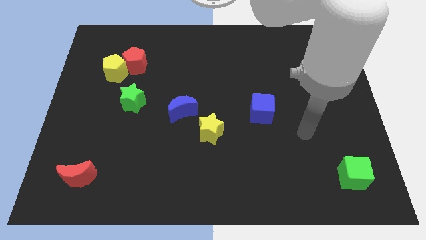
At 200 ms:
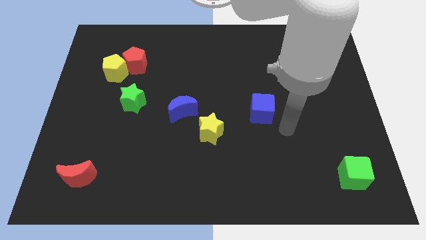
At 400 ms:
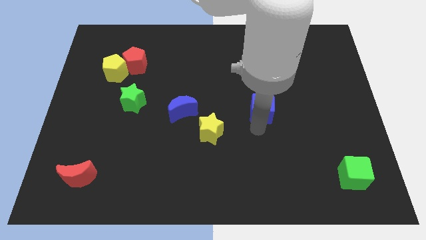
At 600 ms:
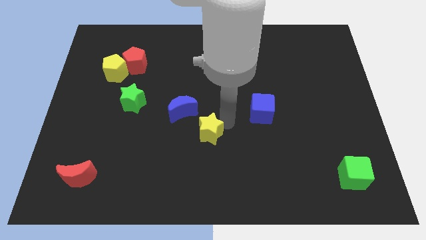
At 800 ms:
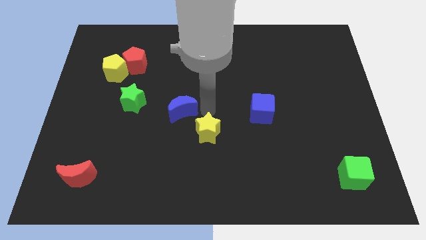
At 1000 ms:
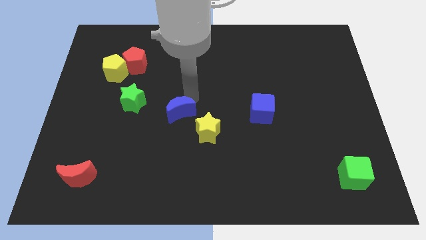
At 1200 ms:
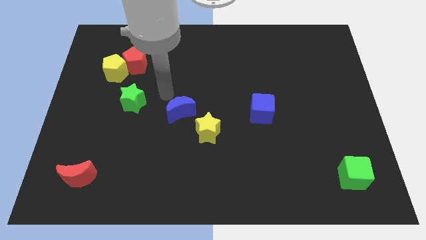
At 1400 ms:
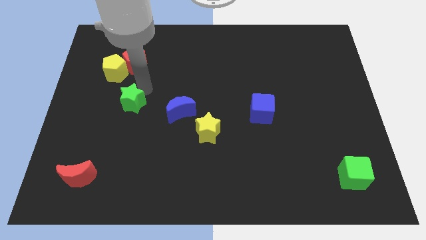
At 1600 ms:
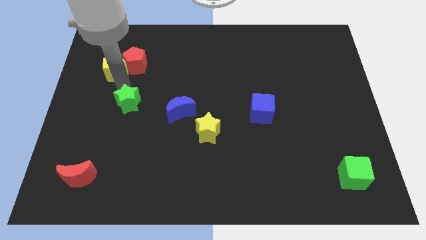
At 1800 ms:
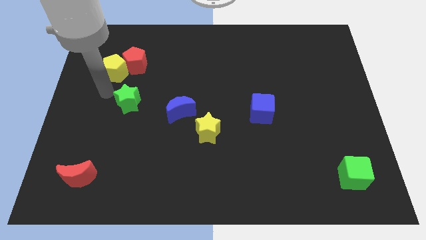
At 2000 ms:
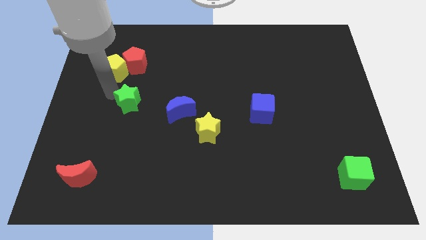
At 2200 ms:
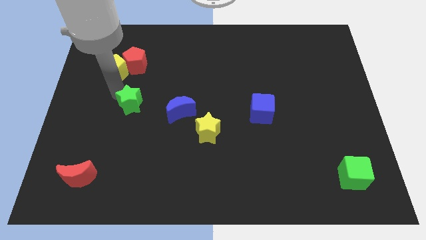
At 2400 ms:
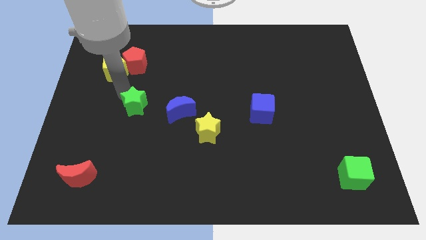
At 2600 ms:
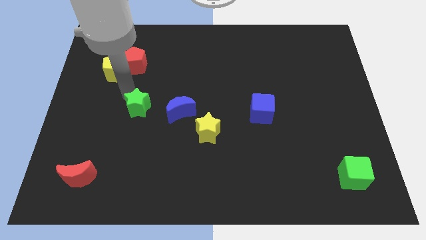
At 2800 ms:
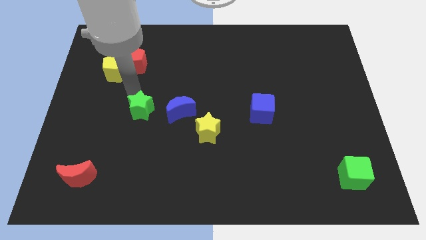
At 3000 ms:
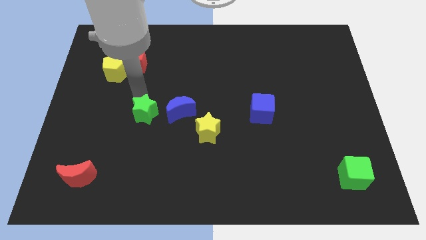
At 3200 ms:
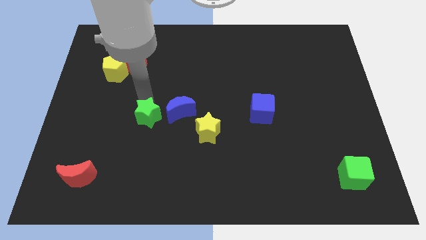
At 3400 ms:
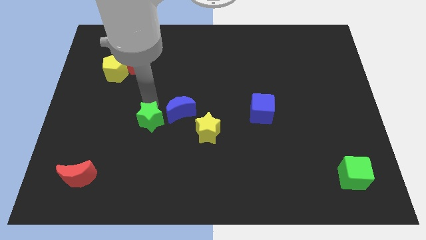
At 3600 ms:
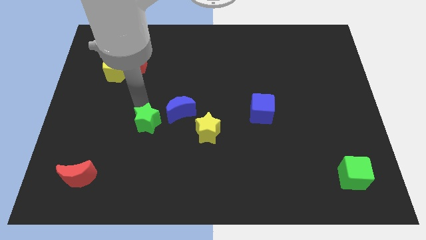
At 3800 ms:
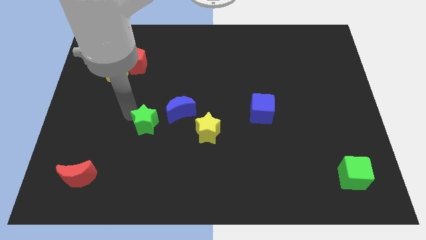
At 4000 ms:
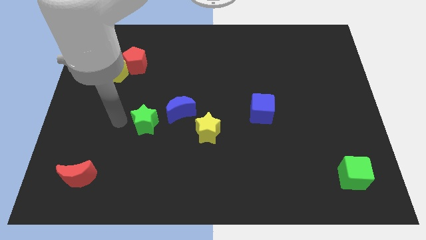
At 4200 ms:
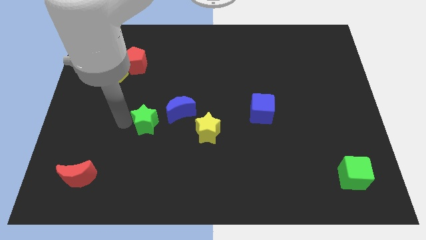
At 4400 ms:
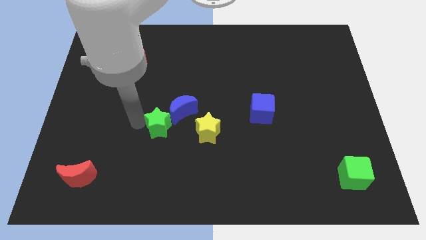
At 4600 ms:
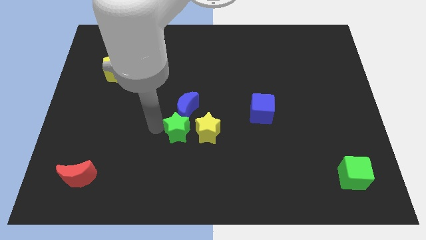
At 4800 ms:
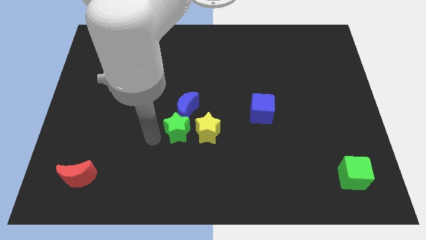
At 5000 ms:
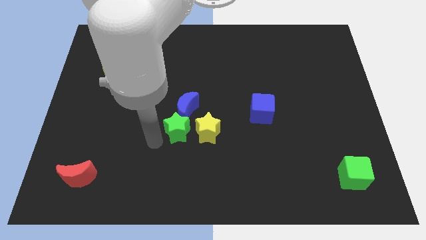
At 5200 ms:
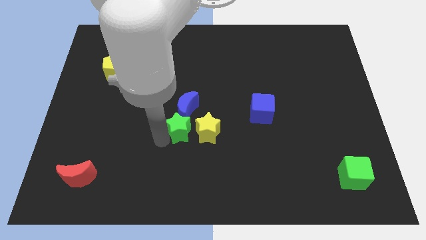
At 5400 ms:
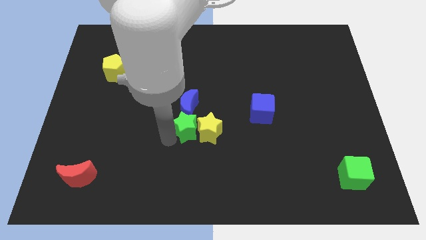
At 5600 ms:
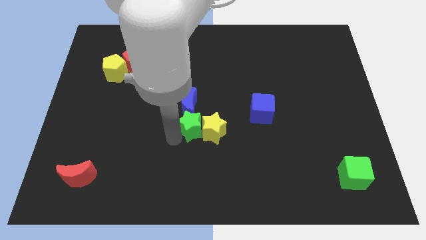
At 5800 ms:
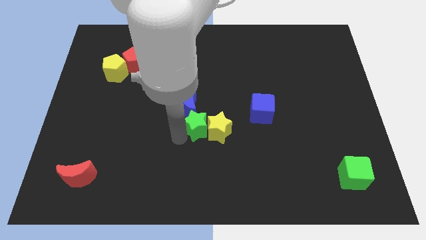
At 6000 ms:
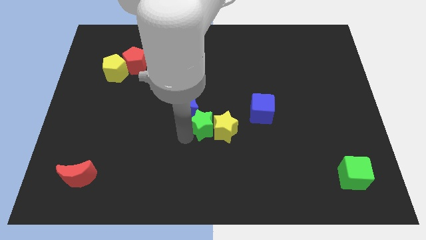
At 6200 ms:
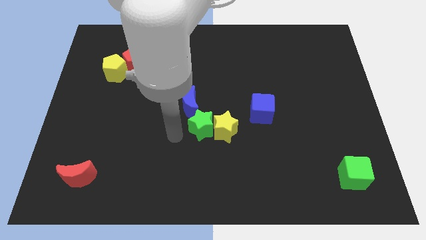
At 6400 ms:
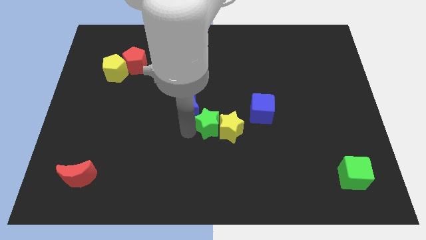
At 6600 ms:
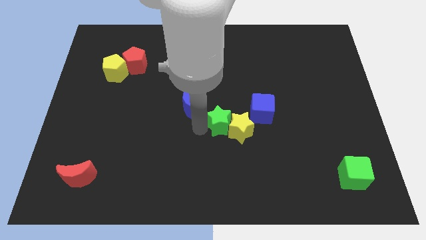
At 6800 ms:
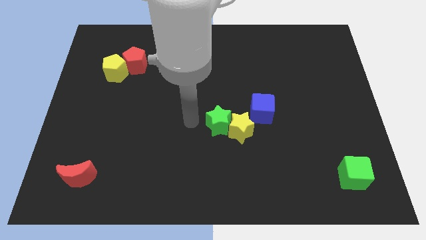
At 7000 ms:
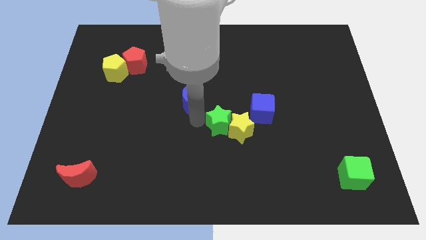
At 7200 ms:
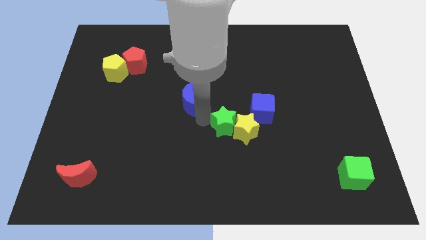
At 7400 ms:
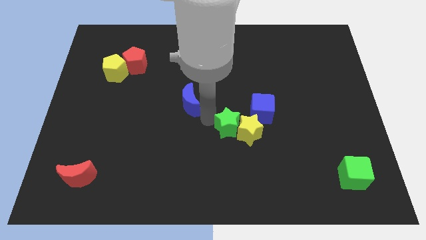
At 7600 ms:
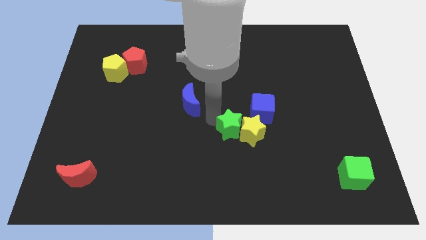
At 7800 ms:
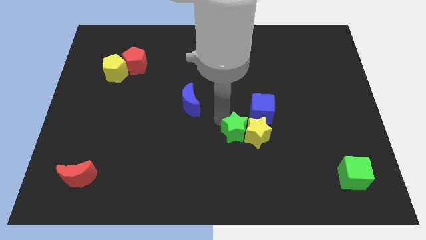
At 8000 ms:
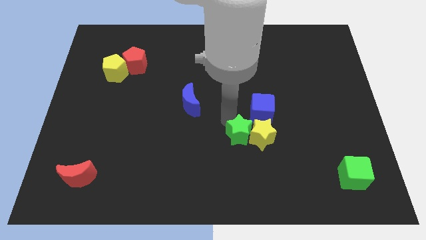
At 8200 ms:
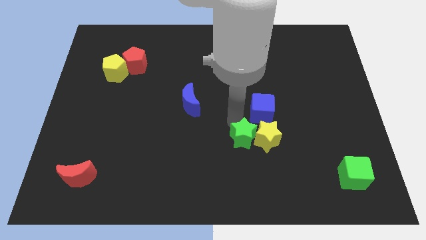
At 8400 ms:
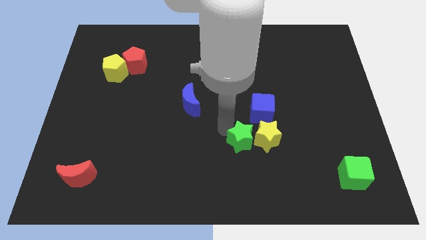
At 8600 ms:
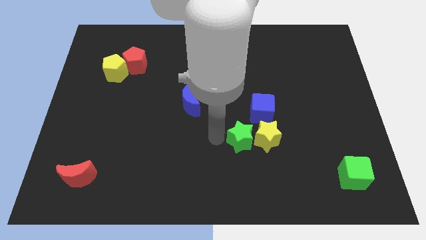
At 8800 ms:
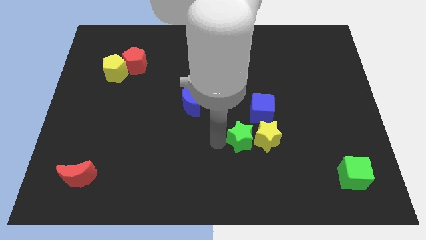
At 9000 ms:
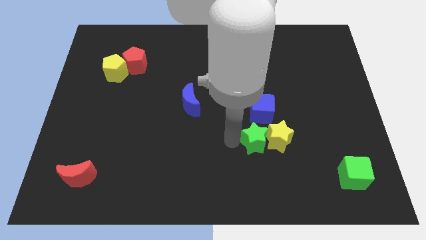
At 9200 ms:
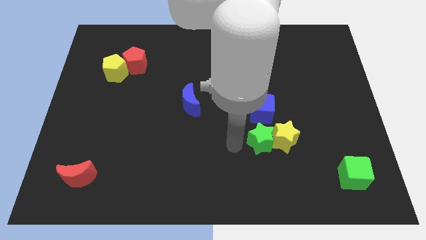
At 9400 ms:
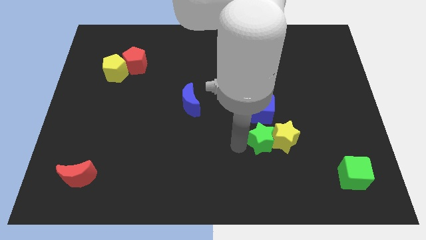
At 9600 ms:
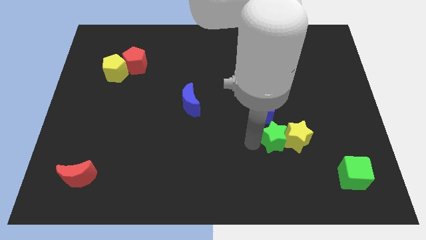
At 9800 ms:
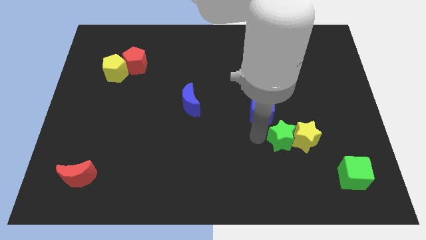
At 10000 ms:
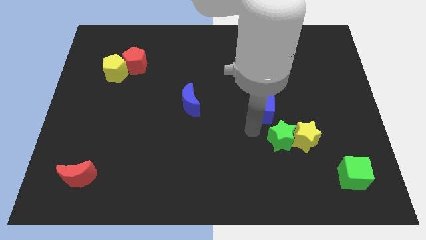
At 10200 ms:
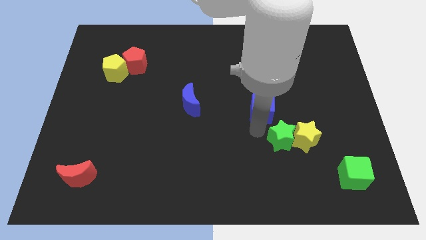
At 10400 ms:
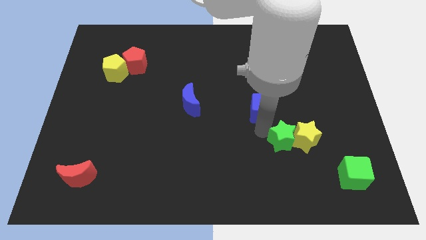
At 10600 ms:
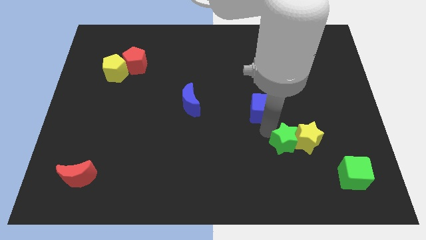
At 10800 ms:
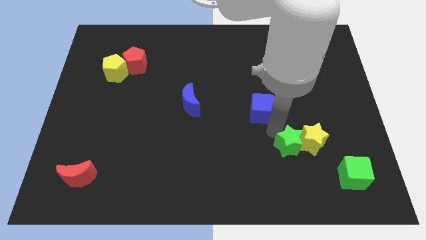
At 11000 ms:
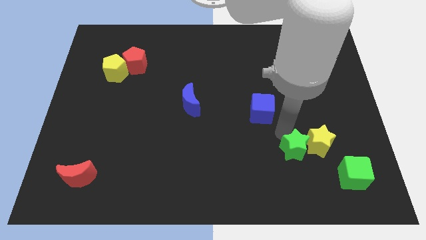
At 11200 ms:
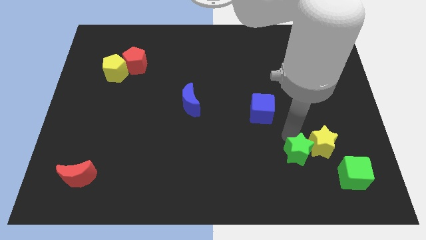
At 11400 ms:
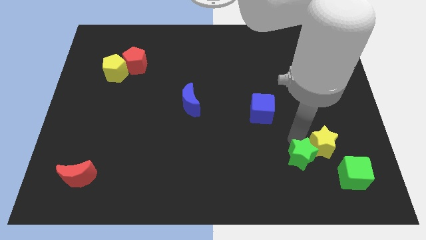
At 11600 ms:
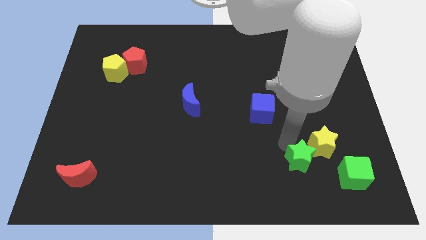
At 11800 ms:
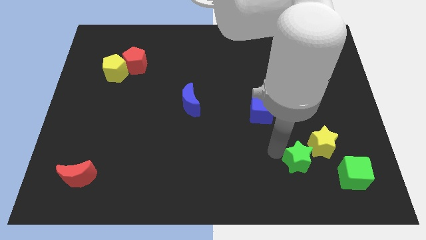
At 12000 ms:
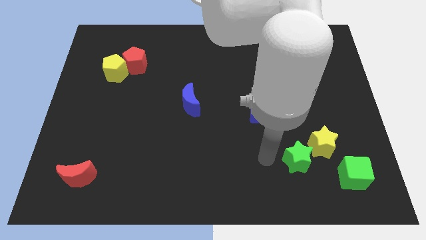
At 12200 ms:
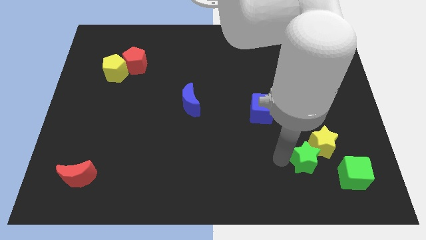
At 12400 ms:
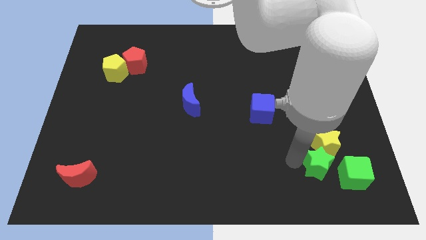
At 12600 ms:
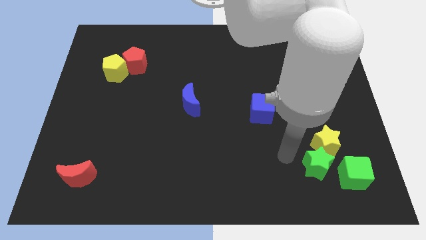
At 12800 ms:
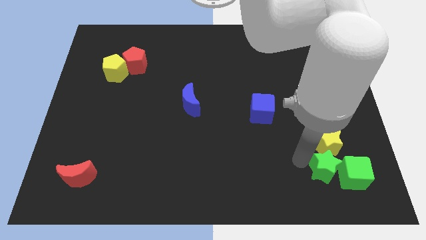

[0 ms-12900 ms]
slide the green star towards the green cube

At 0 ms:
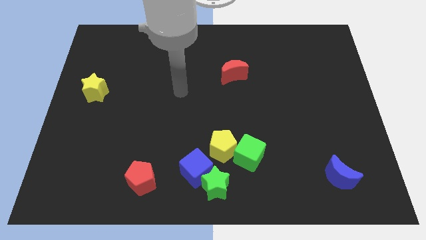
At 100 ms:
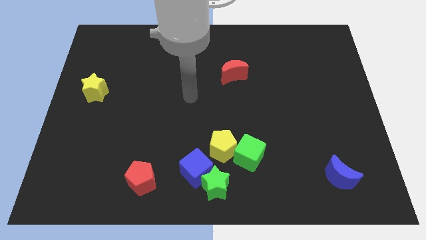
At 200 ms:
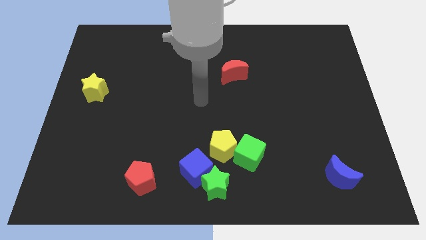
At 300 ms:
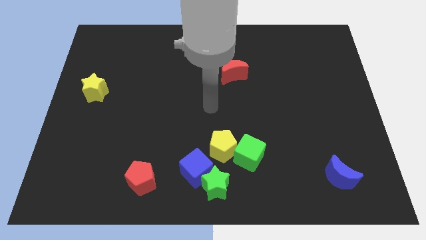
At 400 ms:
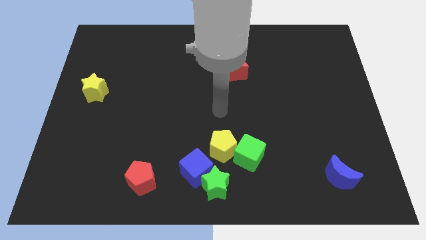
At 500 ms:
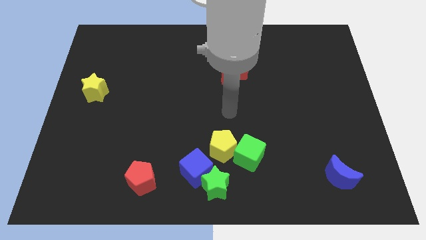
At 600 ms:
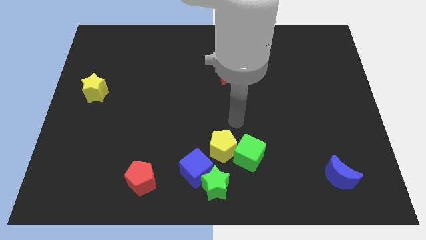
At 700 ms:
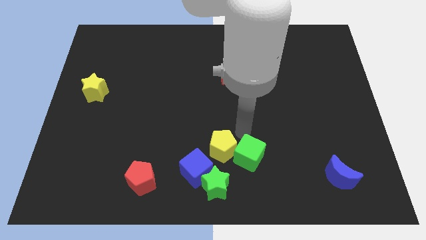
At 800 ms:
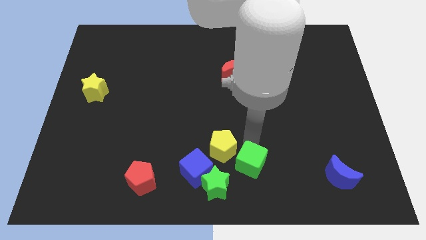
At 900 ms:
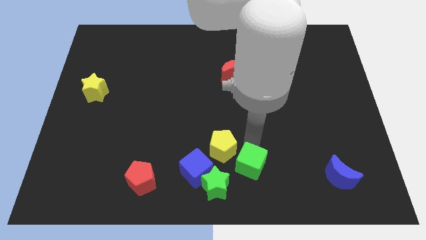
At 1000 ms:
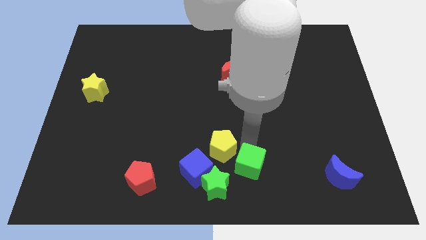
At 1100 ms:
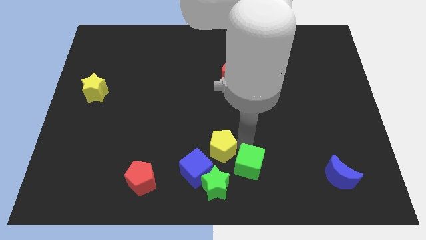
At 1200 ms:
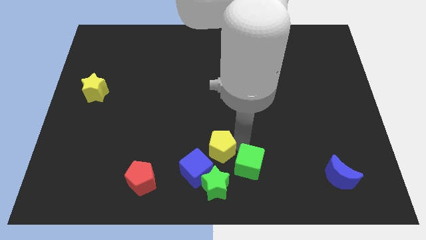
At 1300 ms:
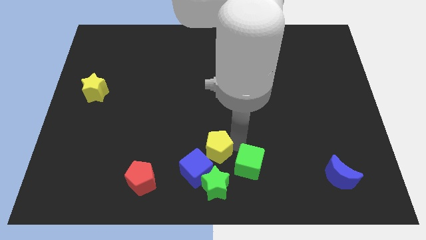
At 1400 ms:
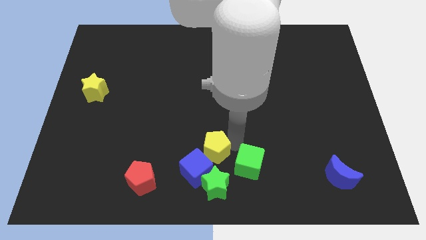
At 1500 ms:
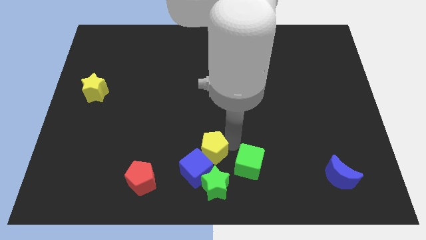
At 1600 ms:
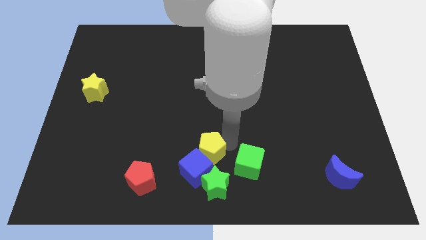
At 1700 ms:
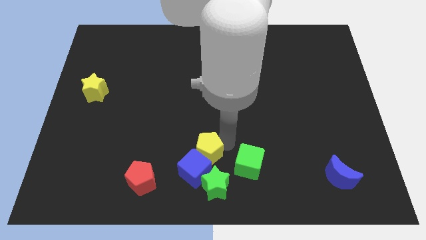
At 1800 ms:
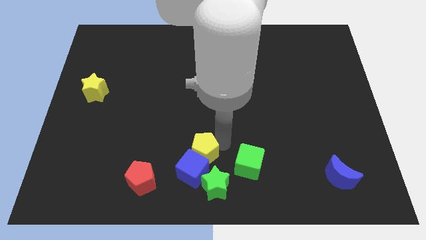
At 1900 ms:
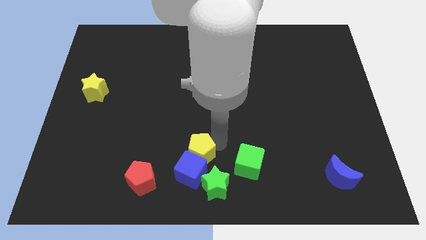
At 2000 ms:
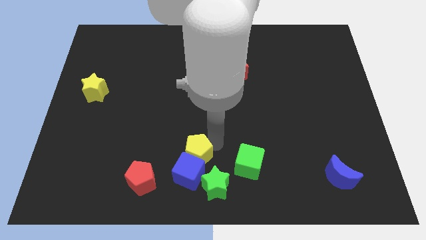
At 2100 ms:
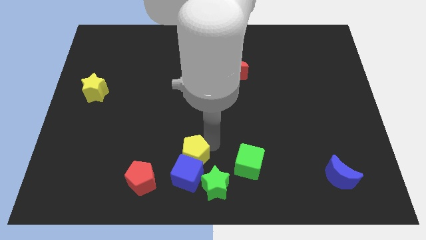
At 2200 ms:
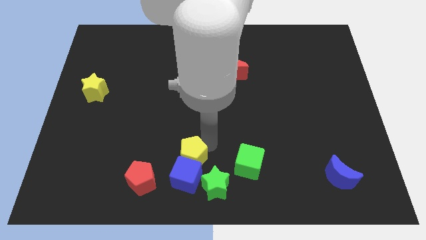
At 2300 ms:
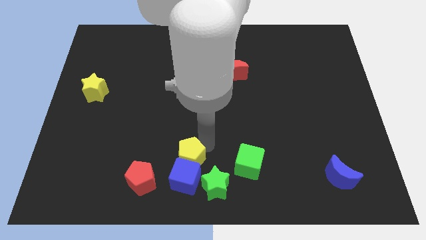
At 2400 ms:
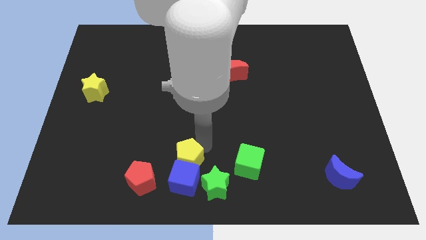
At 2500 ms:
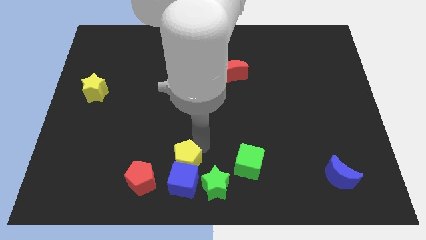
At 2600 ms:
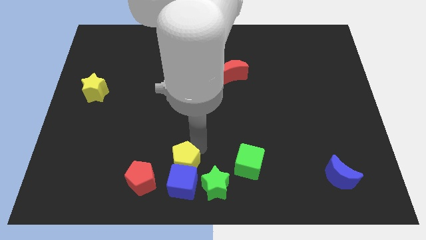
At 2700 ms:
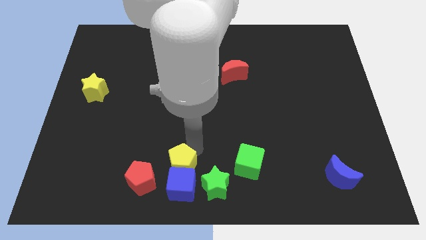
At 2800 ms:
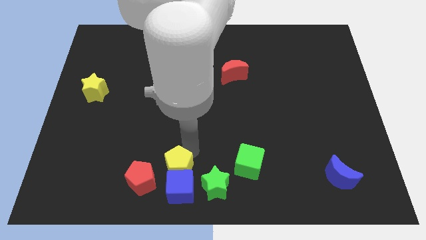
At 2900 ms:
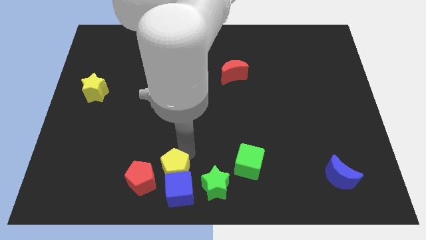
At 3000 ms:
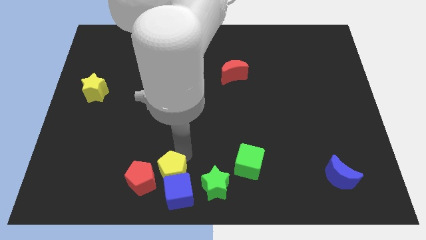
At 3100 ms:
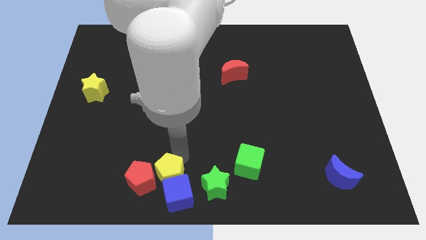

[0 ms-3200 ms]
move the yellow pentagon to the red pentagon
